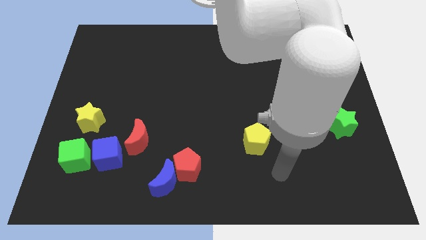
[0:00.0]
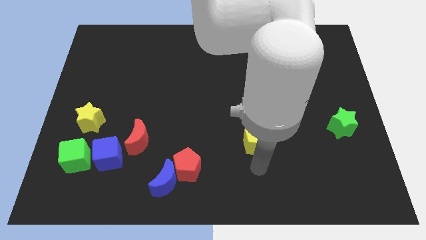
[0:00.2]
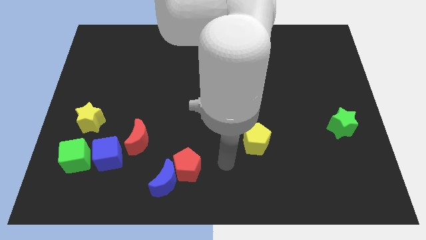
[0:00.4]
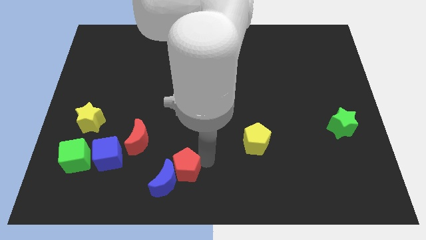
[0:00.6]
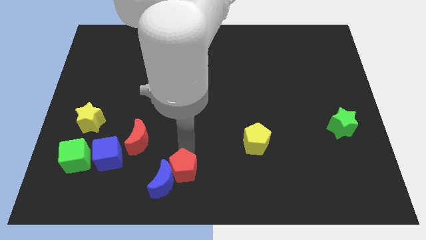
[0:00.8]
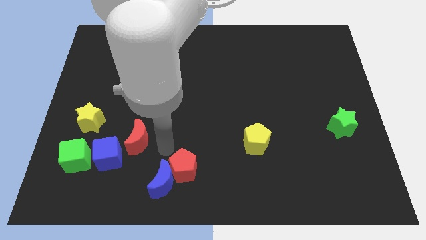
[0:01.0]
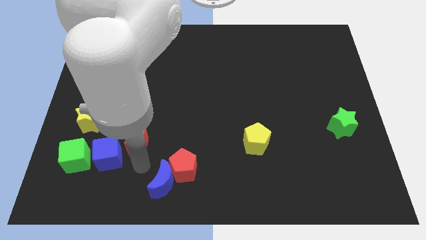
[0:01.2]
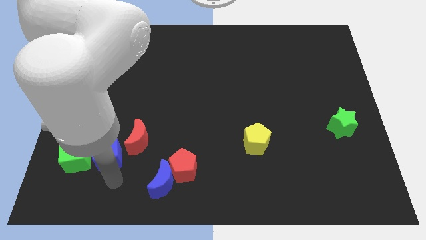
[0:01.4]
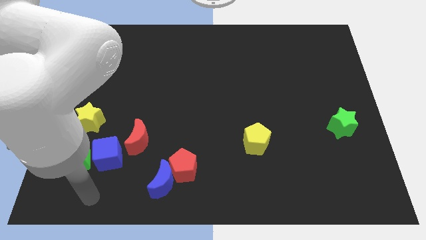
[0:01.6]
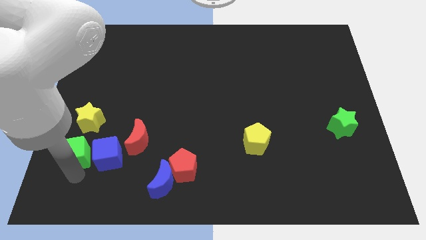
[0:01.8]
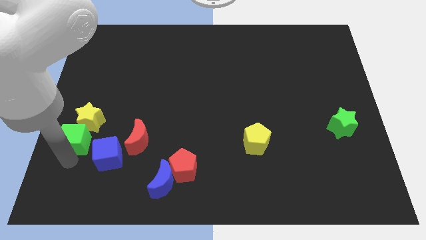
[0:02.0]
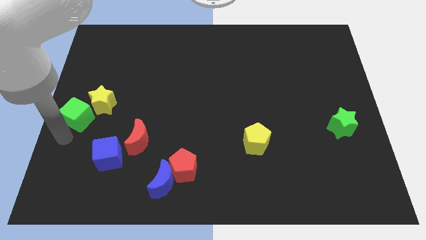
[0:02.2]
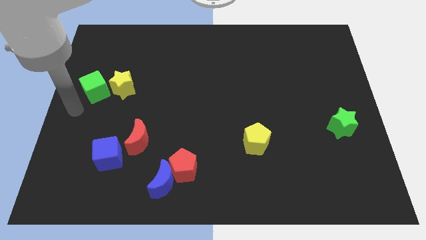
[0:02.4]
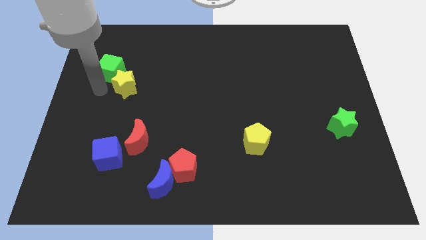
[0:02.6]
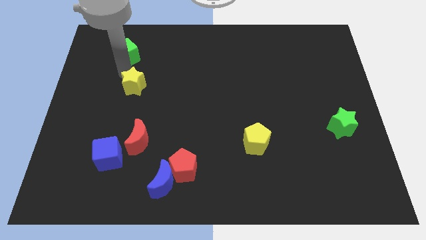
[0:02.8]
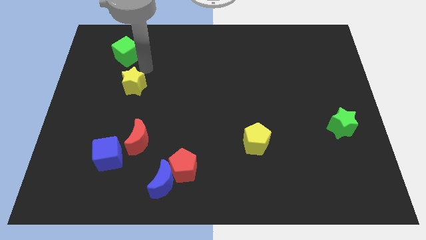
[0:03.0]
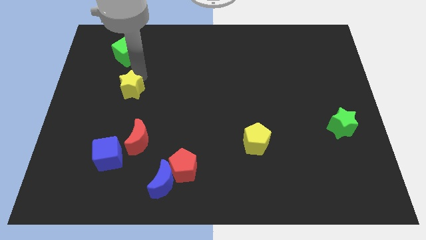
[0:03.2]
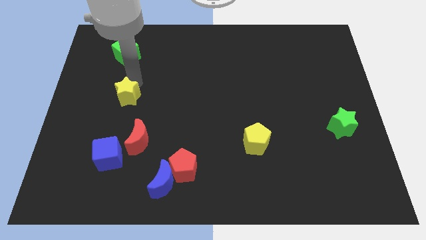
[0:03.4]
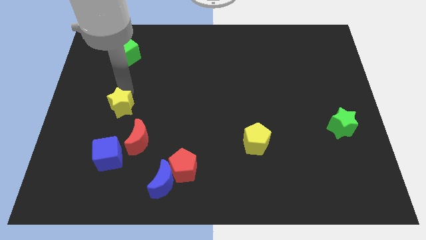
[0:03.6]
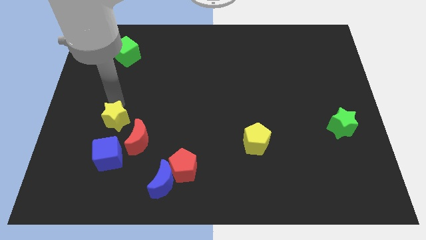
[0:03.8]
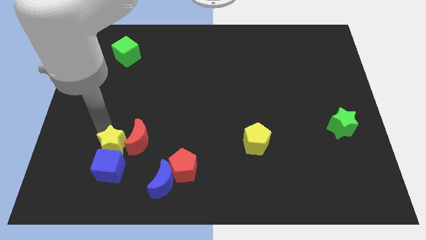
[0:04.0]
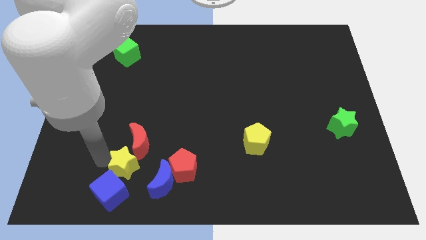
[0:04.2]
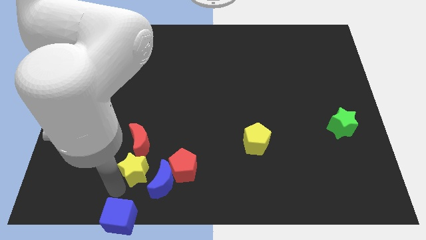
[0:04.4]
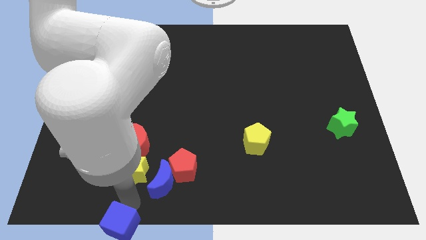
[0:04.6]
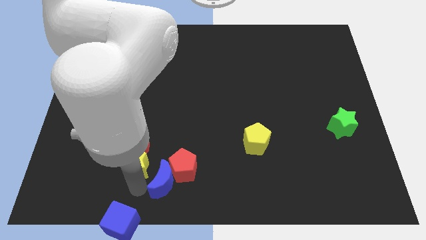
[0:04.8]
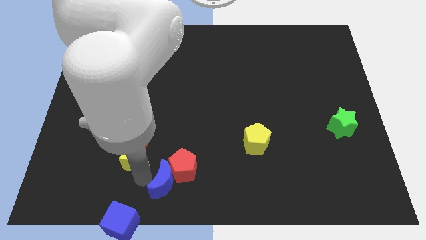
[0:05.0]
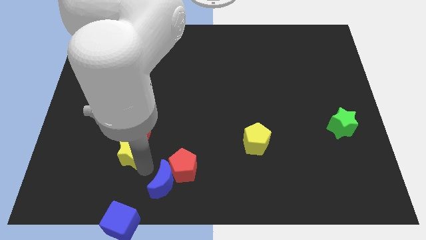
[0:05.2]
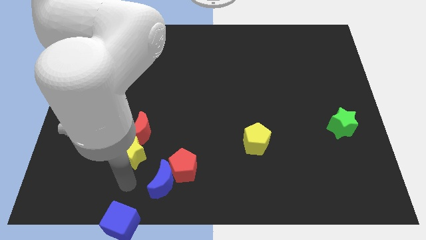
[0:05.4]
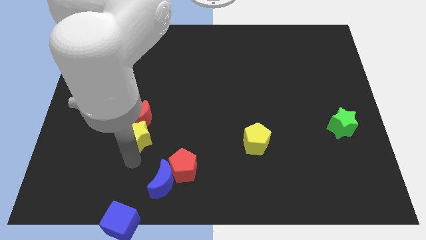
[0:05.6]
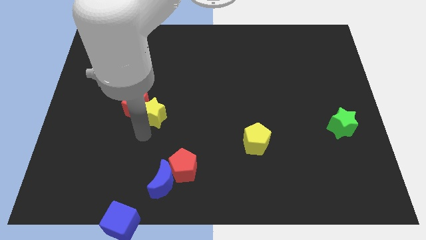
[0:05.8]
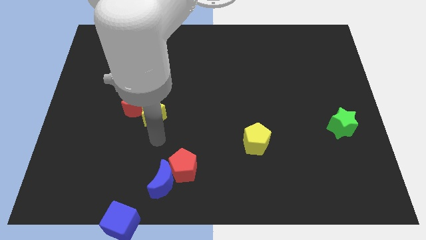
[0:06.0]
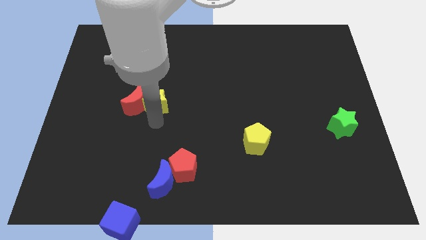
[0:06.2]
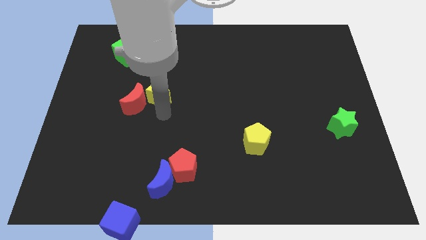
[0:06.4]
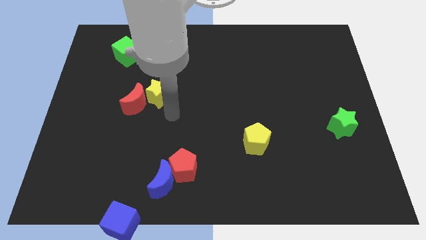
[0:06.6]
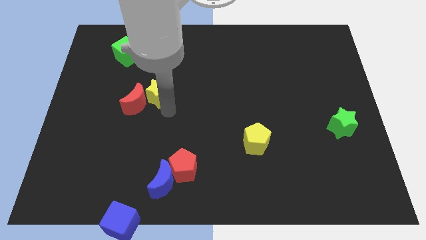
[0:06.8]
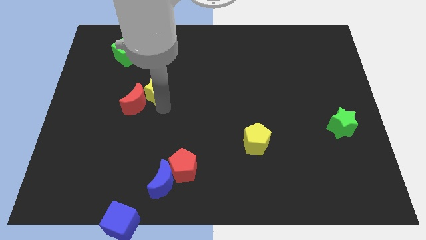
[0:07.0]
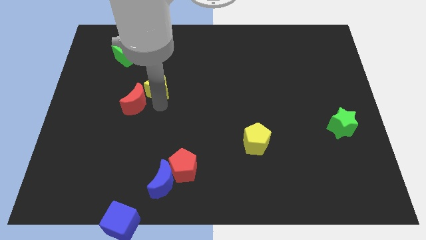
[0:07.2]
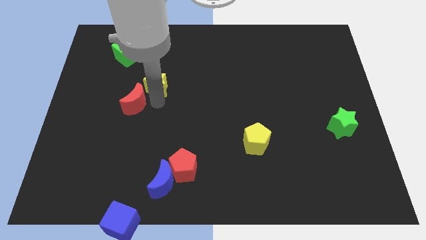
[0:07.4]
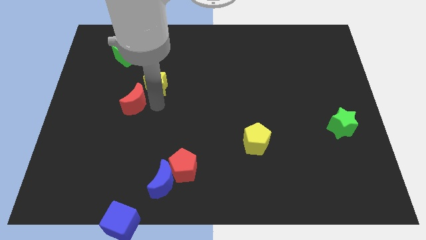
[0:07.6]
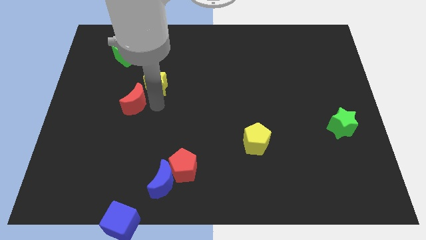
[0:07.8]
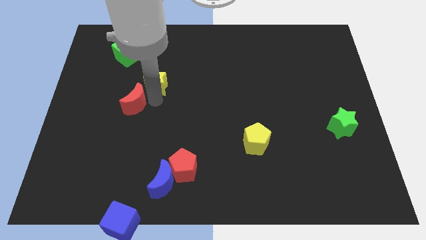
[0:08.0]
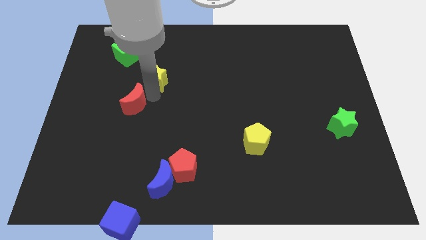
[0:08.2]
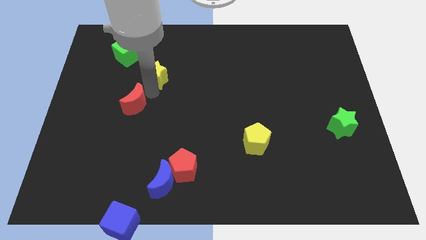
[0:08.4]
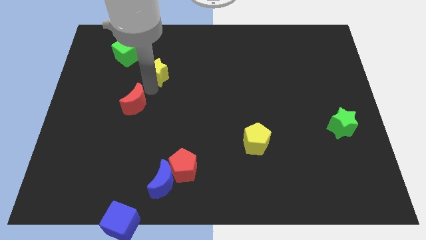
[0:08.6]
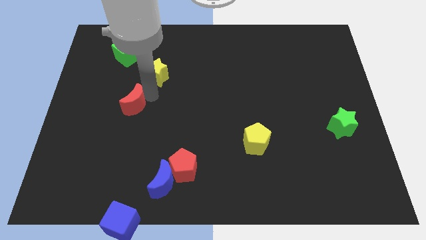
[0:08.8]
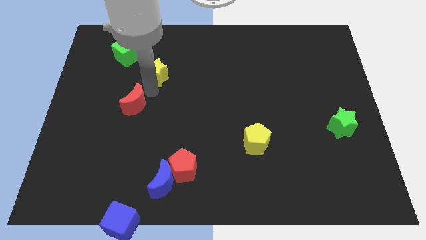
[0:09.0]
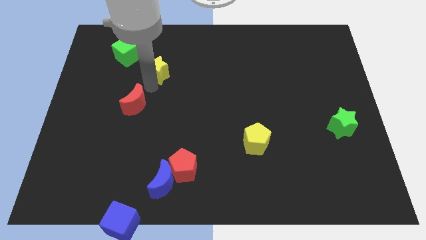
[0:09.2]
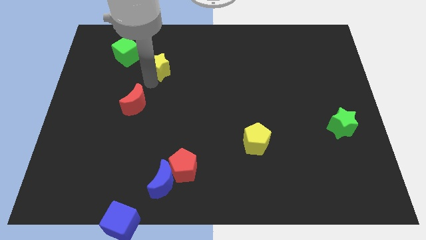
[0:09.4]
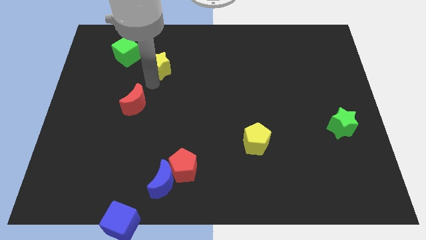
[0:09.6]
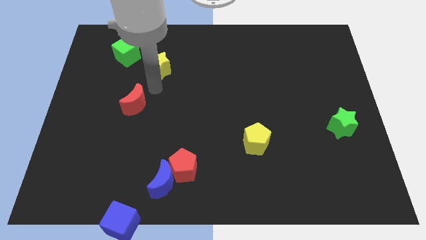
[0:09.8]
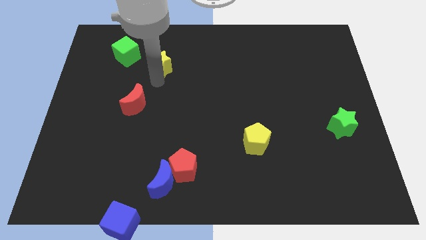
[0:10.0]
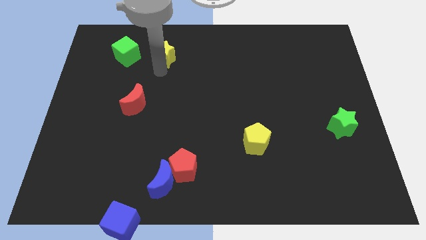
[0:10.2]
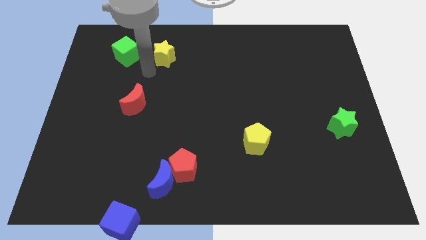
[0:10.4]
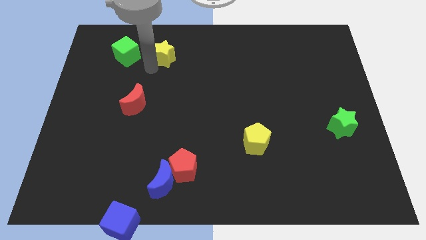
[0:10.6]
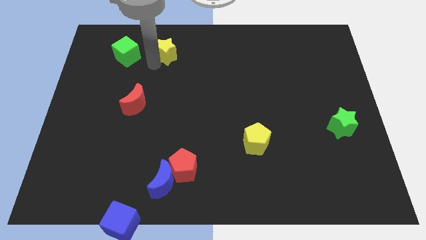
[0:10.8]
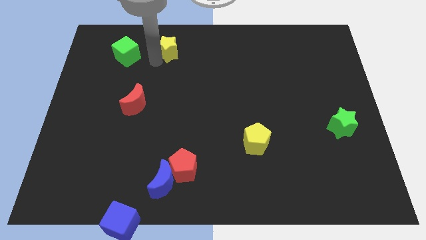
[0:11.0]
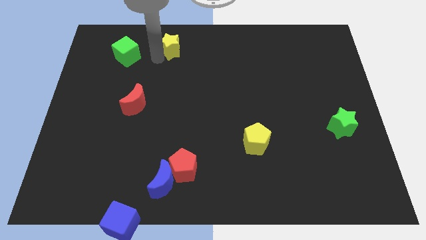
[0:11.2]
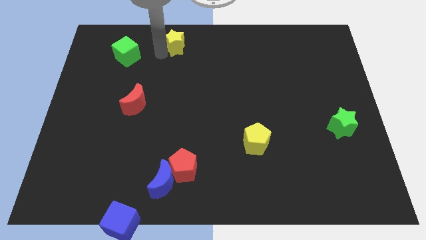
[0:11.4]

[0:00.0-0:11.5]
slide the yellow star to the top side

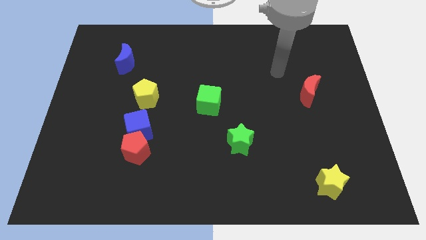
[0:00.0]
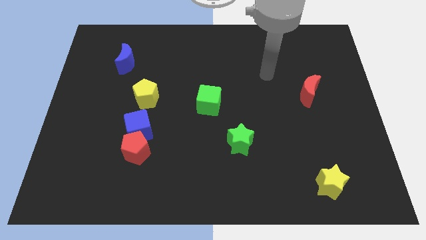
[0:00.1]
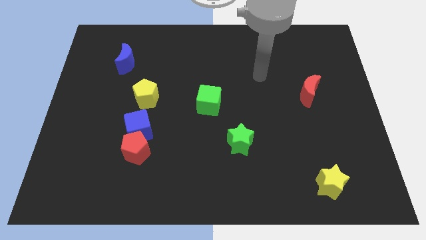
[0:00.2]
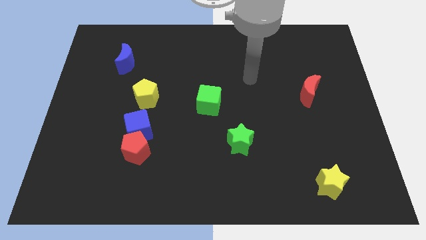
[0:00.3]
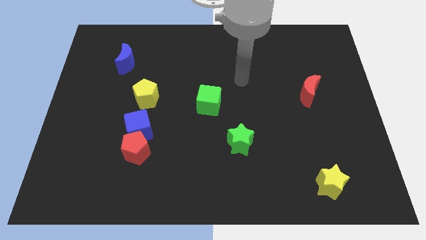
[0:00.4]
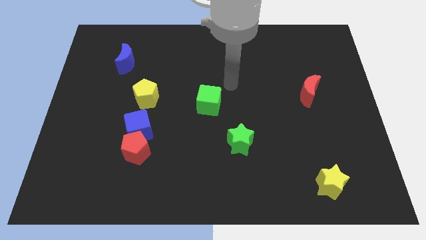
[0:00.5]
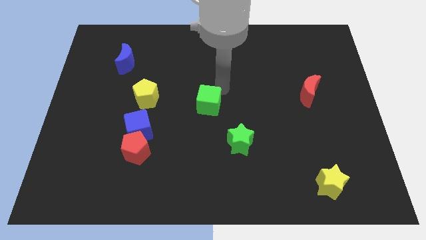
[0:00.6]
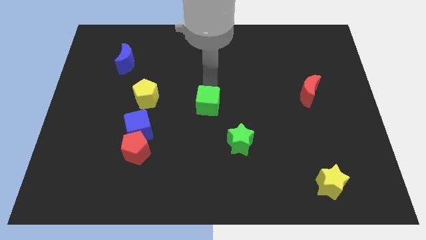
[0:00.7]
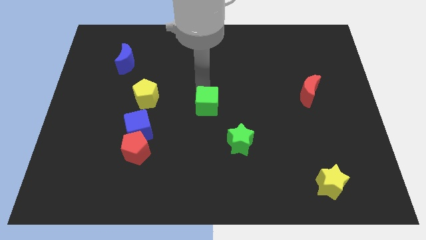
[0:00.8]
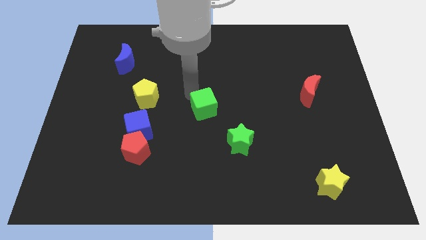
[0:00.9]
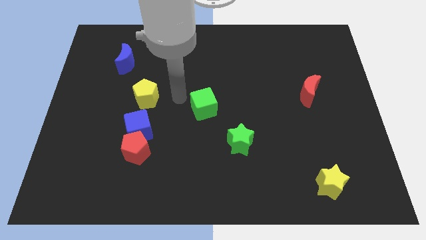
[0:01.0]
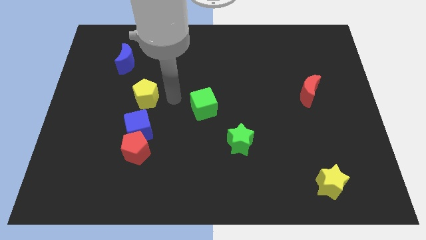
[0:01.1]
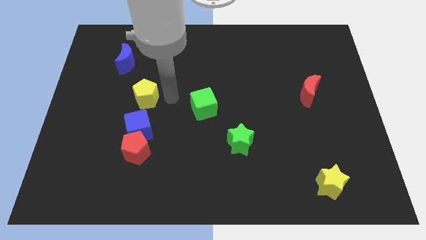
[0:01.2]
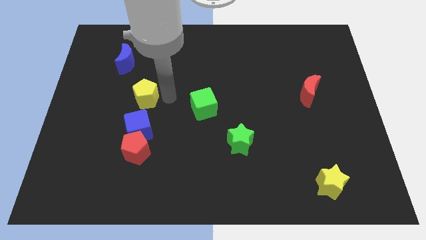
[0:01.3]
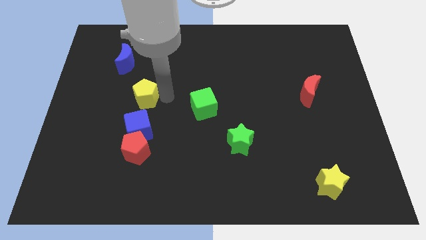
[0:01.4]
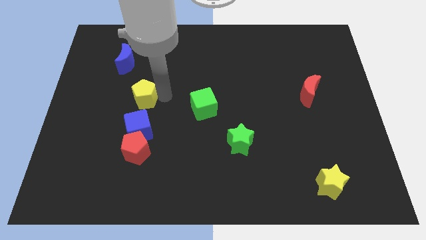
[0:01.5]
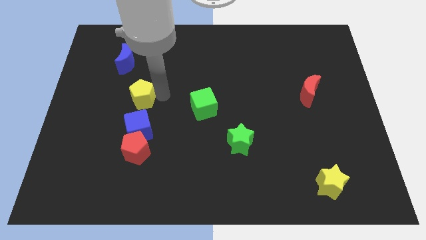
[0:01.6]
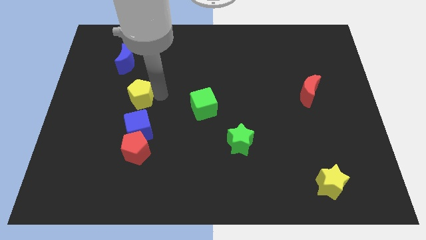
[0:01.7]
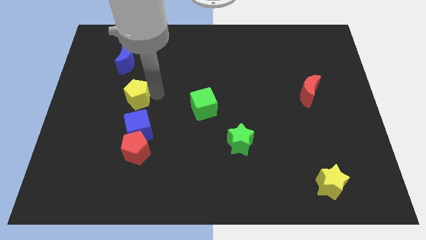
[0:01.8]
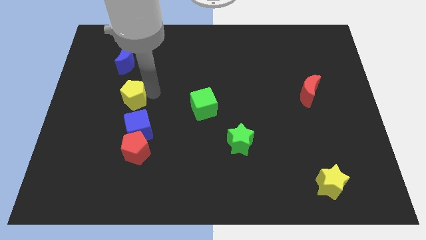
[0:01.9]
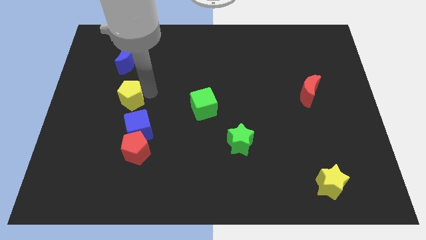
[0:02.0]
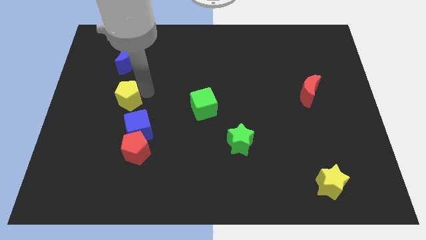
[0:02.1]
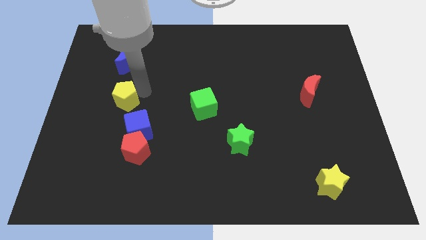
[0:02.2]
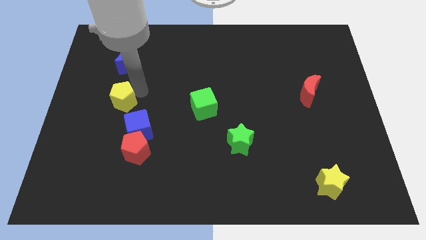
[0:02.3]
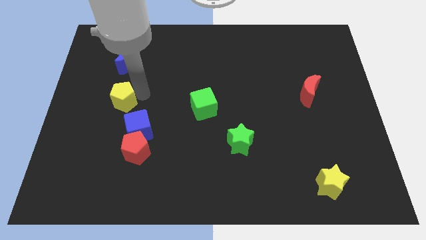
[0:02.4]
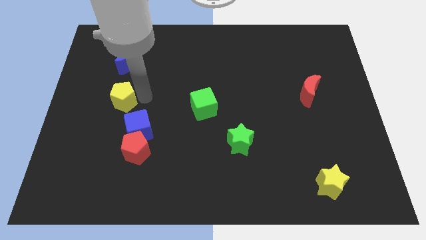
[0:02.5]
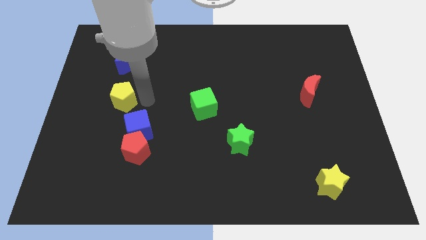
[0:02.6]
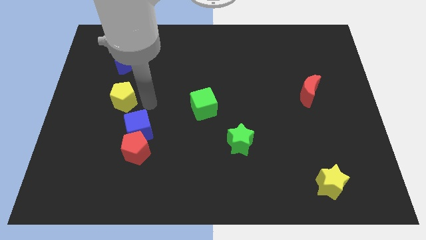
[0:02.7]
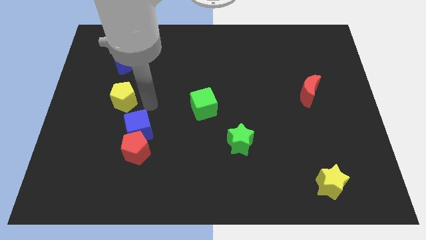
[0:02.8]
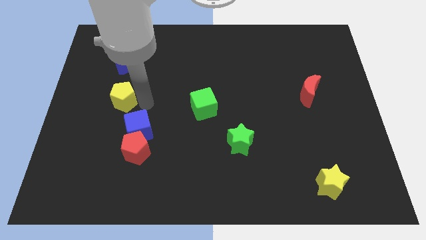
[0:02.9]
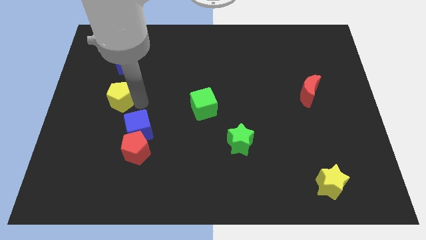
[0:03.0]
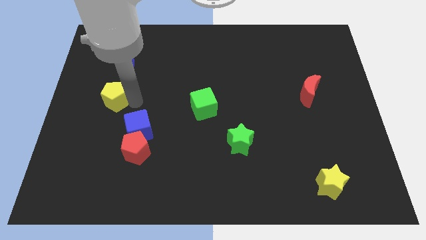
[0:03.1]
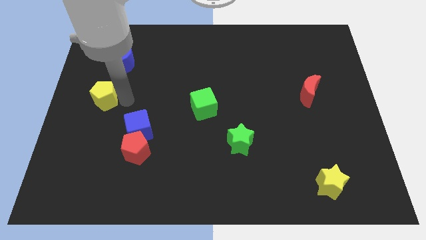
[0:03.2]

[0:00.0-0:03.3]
slide the yellow pentagon to the left side of the board
